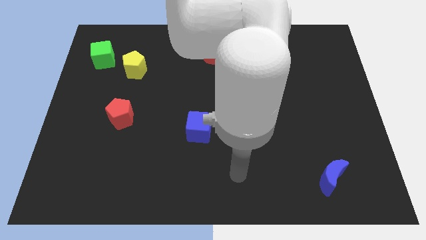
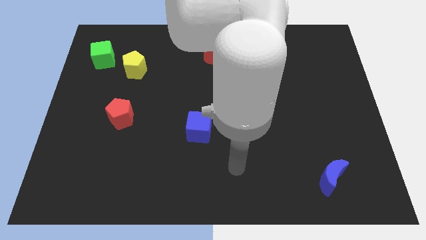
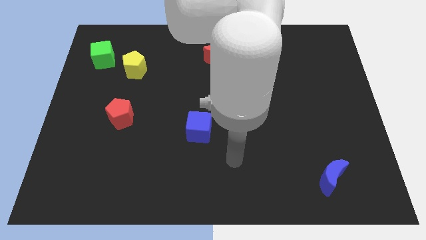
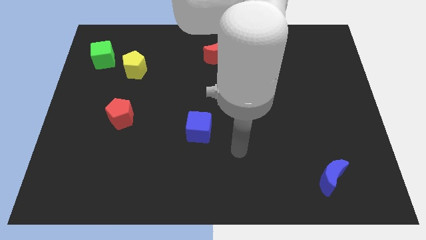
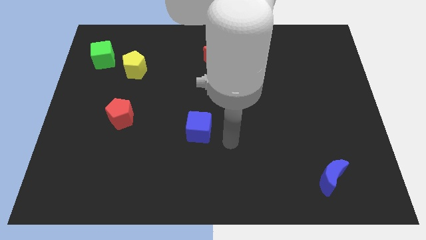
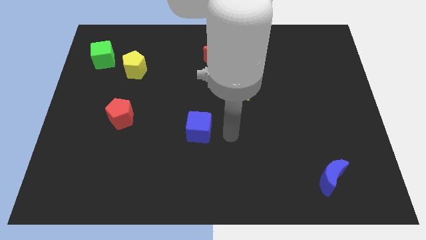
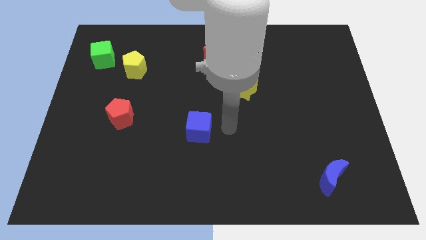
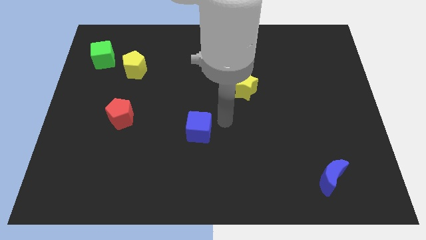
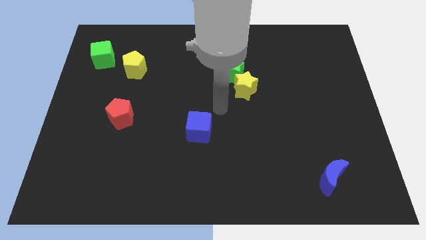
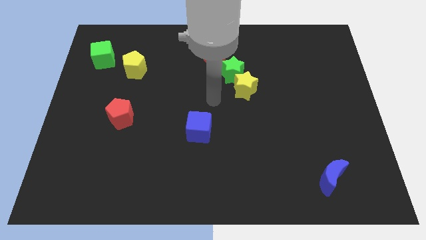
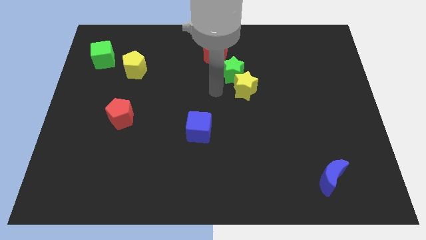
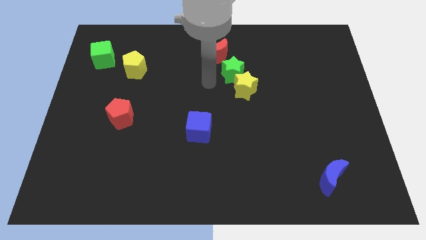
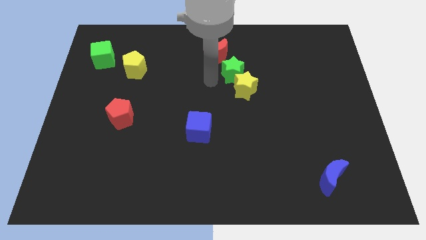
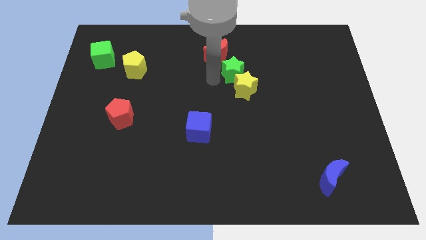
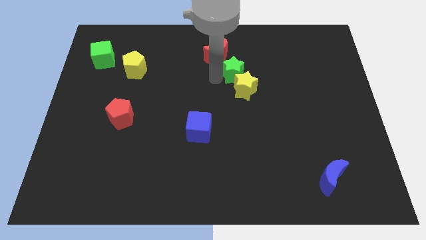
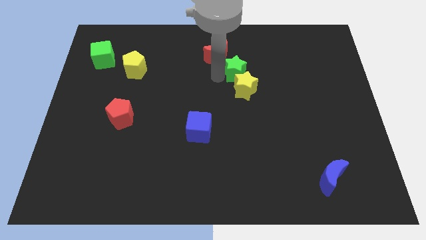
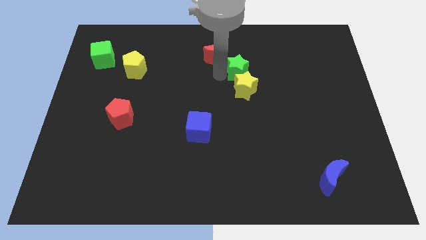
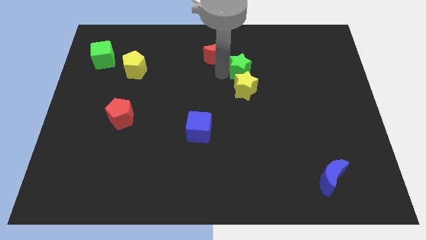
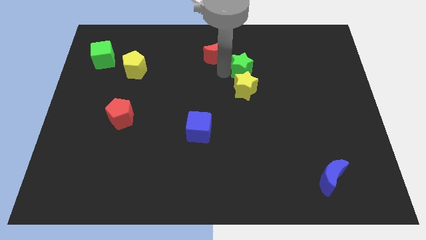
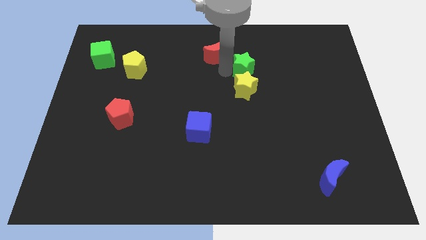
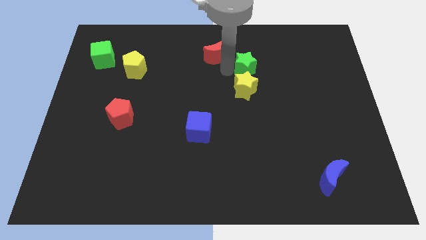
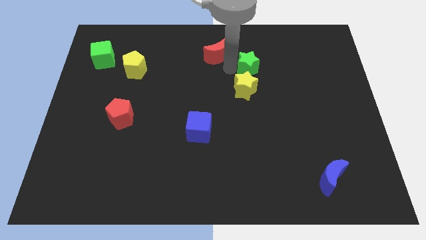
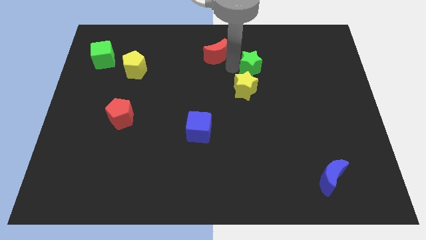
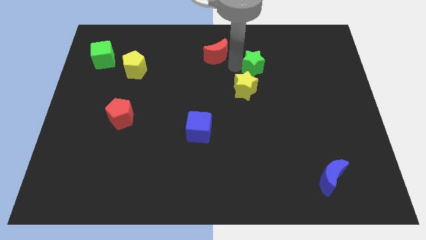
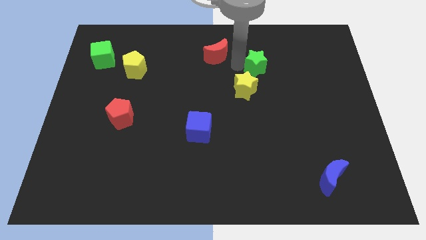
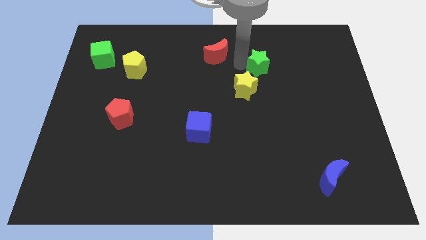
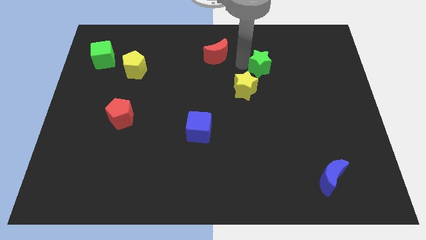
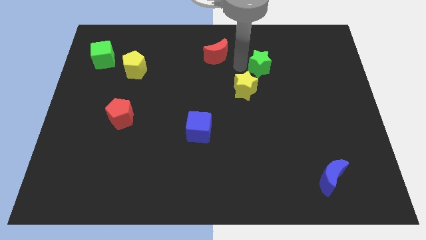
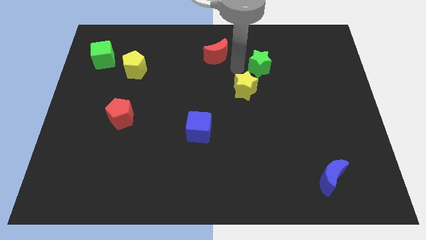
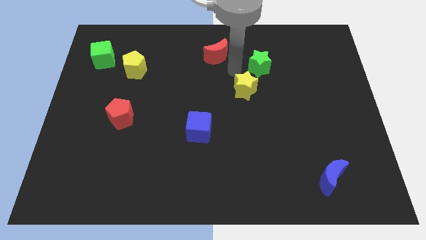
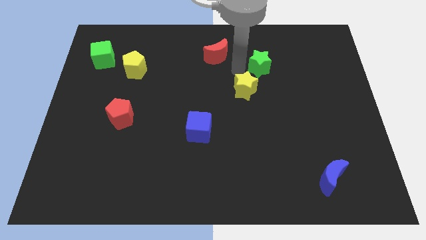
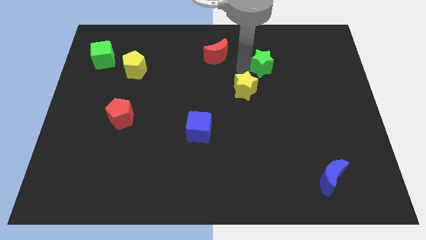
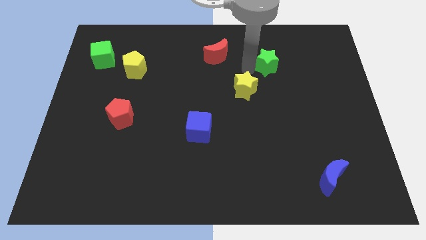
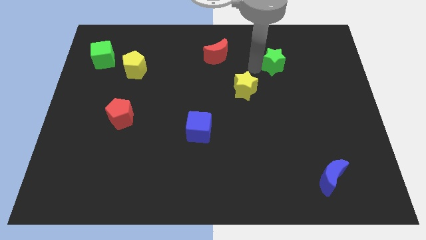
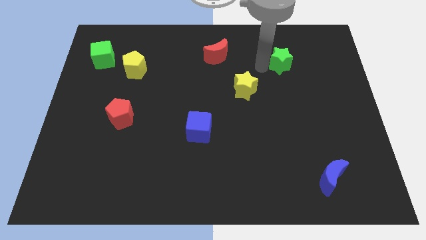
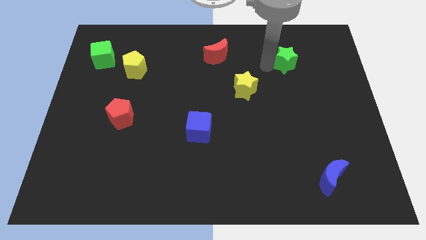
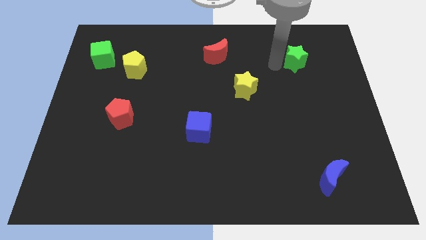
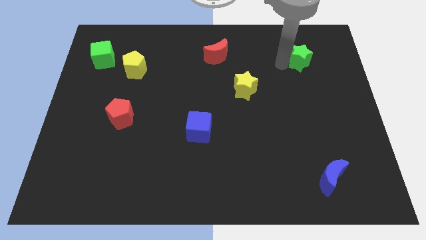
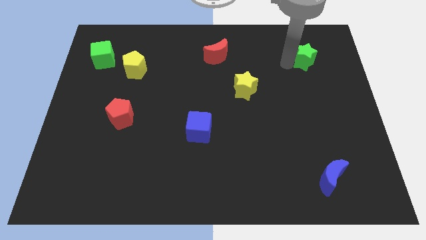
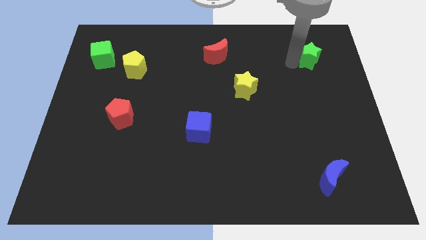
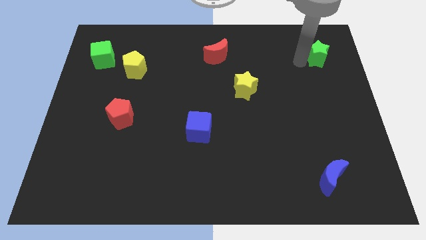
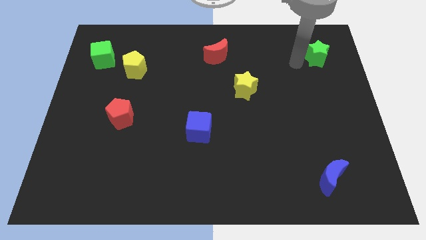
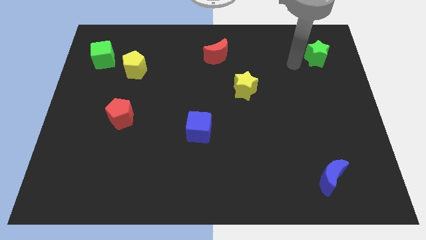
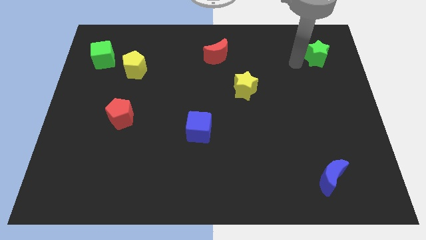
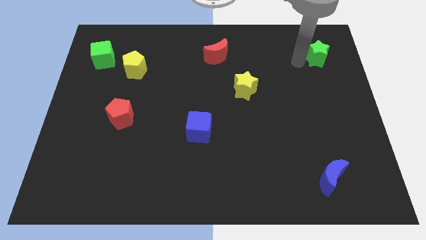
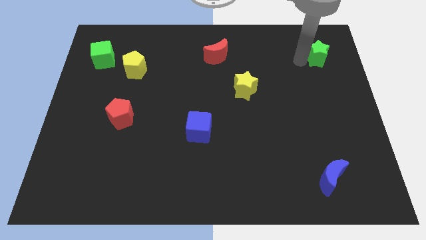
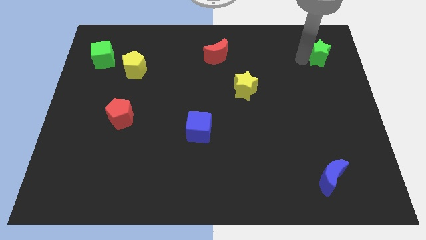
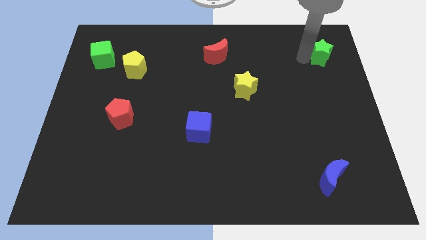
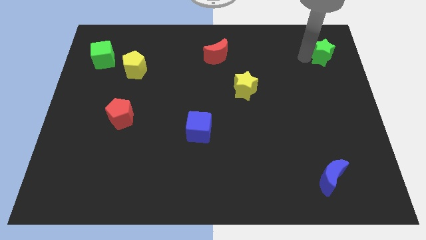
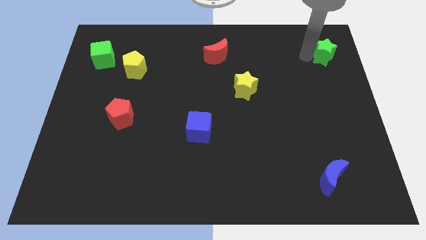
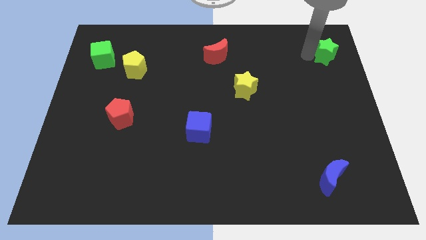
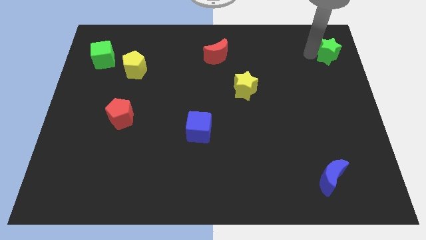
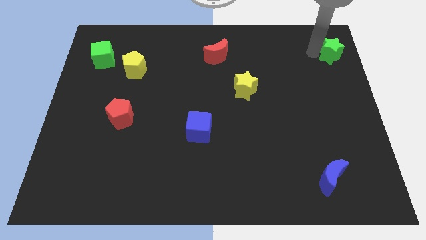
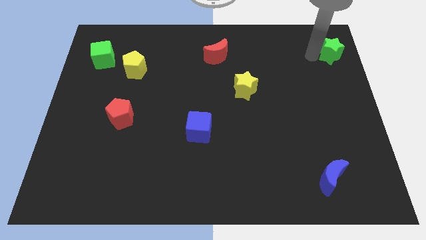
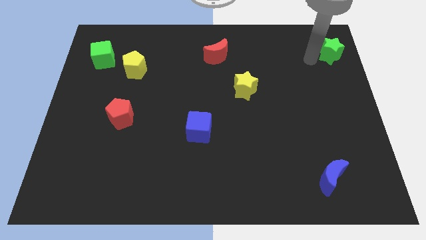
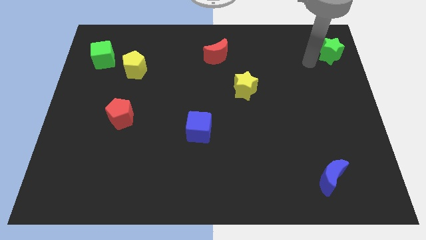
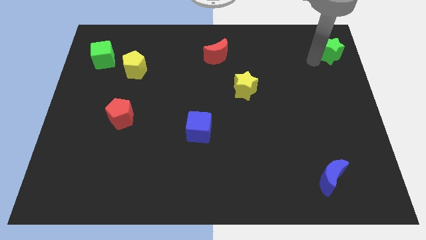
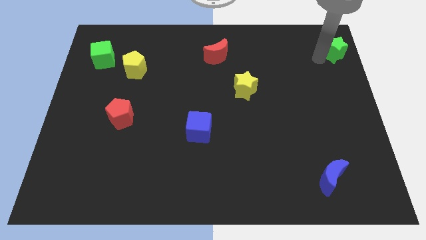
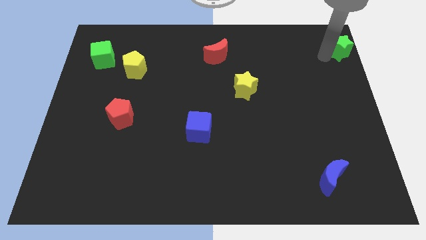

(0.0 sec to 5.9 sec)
move the green star to the top right corner

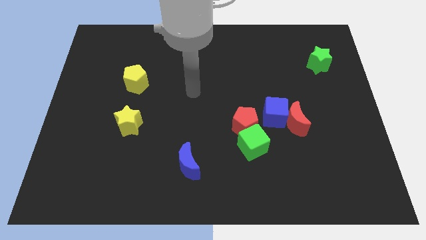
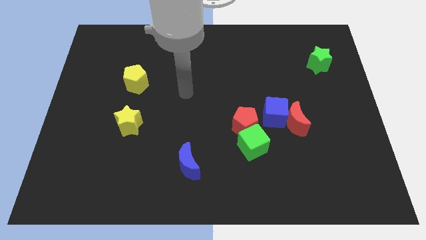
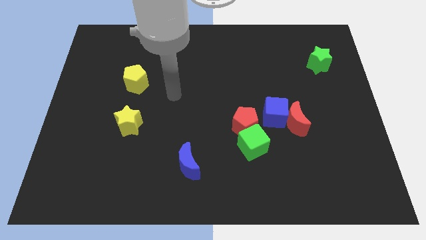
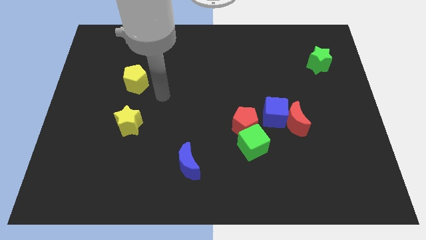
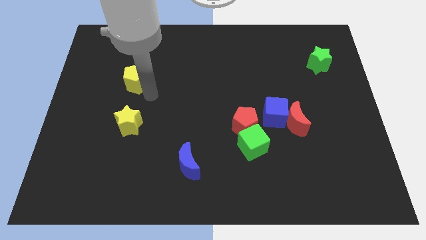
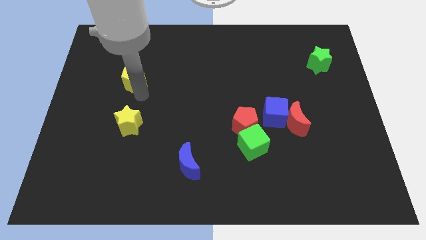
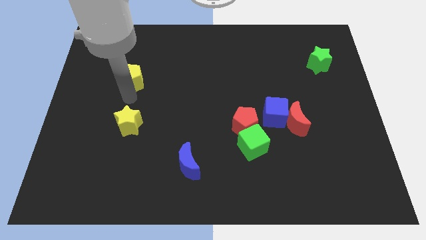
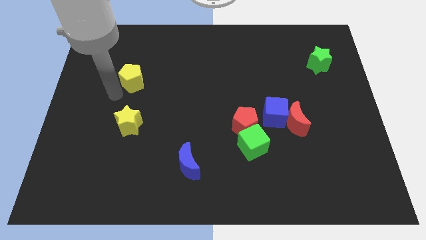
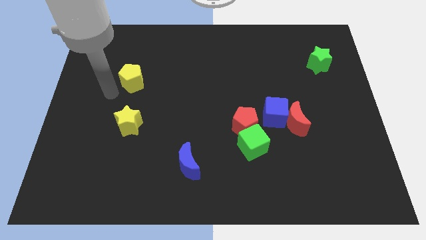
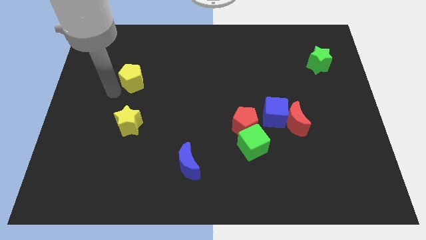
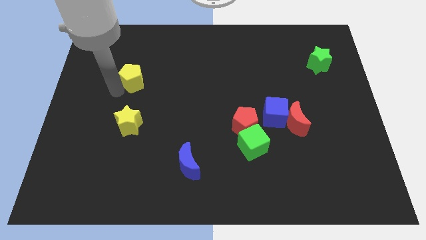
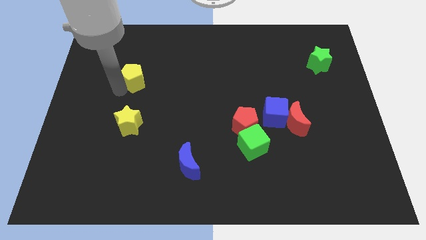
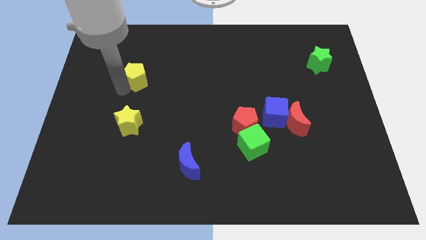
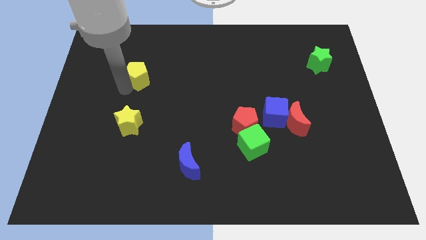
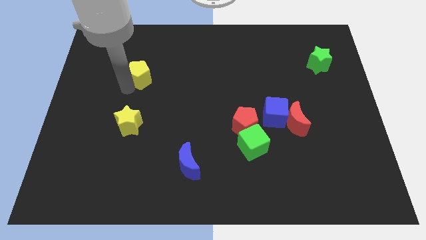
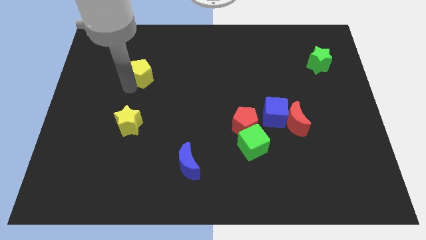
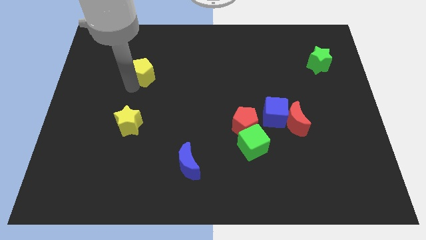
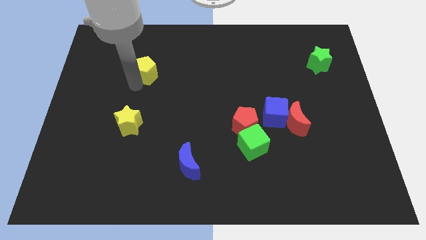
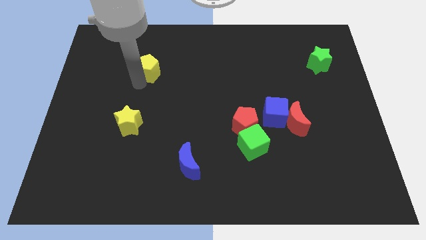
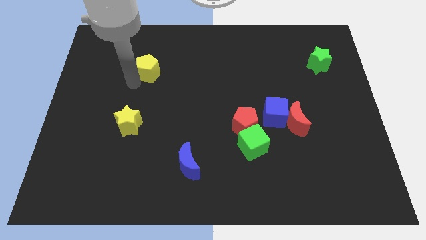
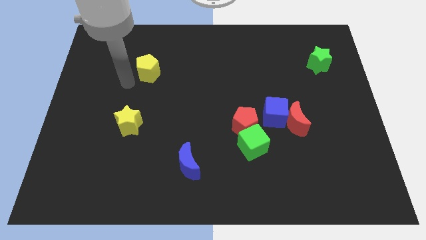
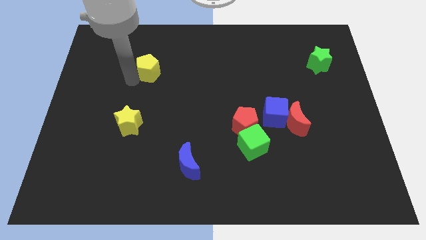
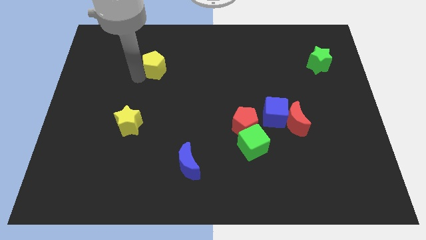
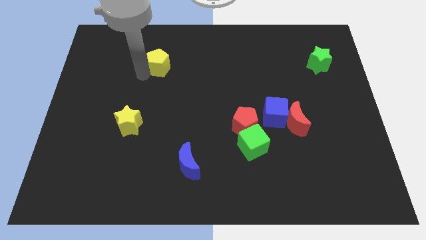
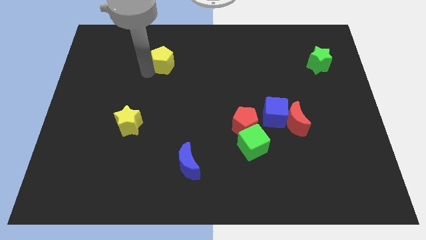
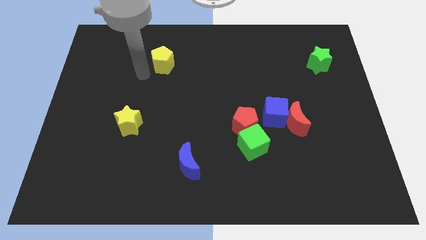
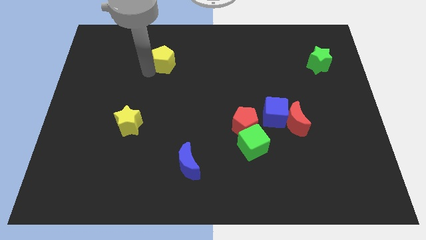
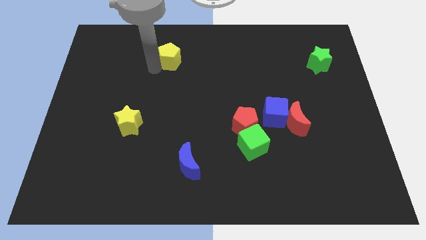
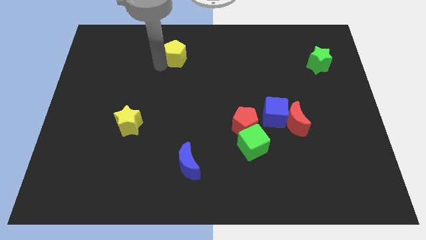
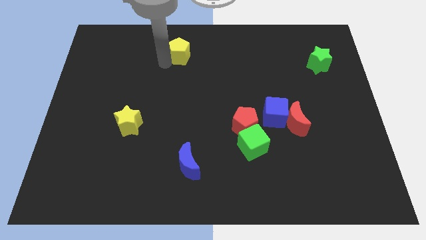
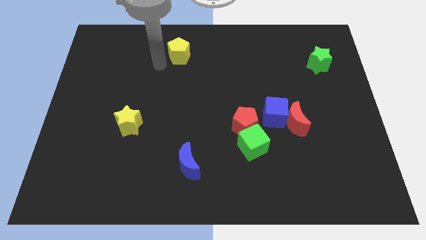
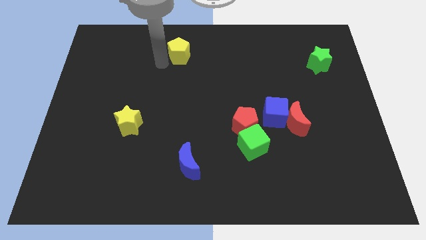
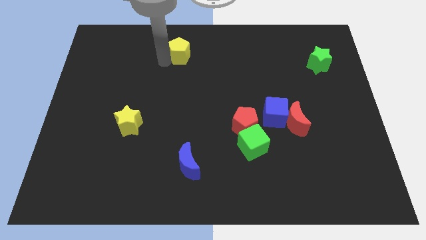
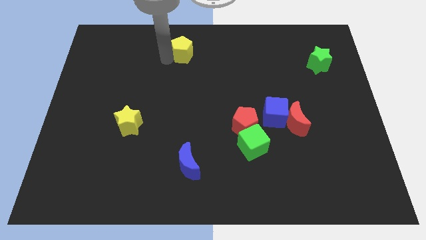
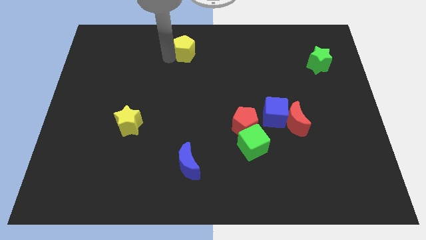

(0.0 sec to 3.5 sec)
move the yellow pentagon to the top side
